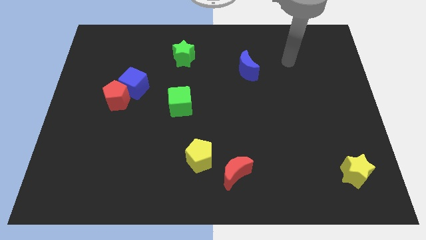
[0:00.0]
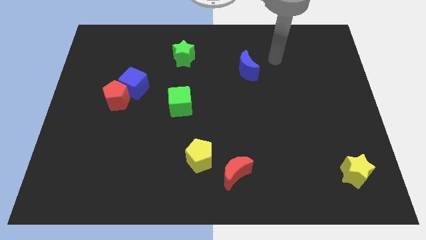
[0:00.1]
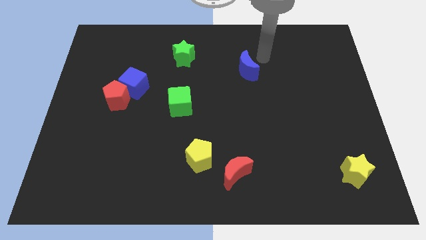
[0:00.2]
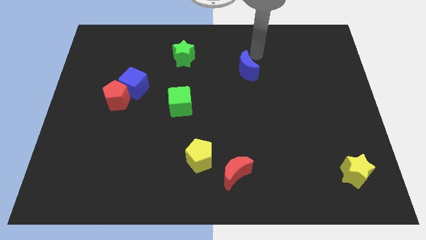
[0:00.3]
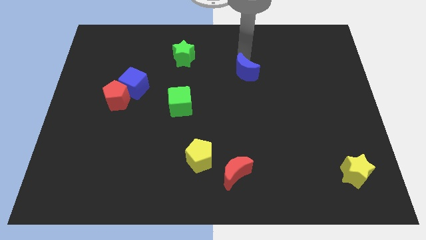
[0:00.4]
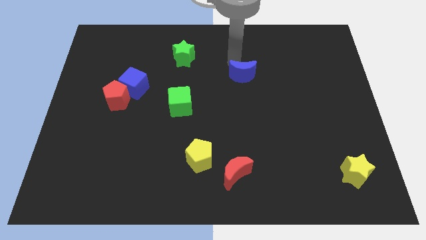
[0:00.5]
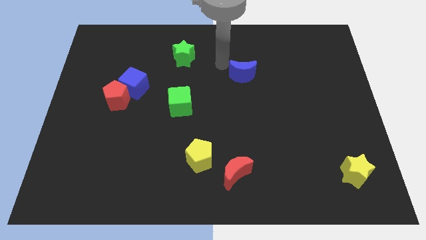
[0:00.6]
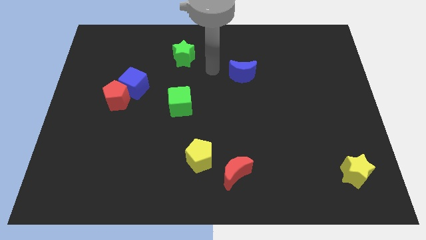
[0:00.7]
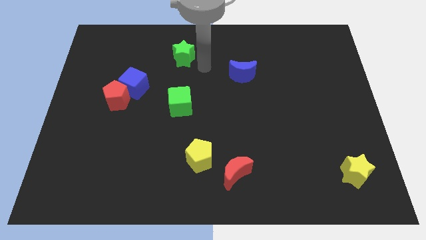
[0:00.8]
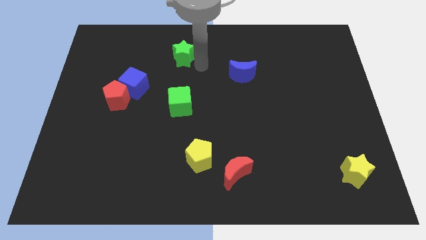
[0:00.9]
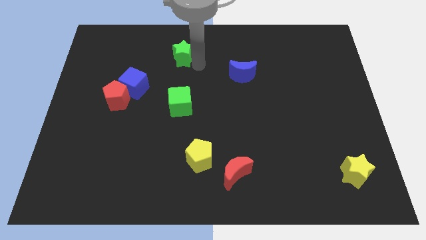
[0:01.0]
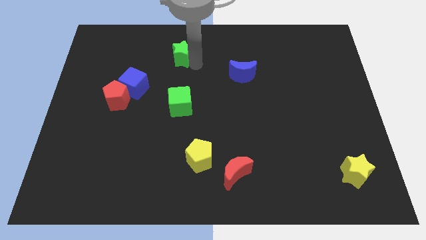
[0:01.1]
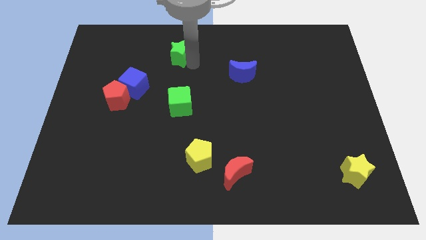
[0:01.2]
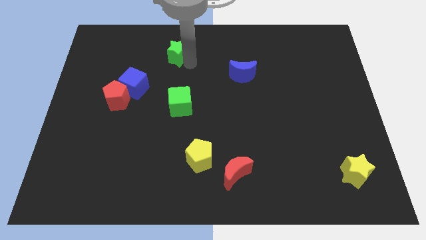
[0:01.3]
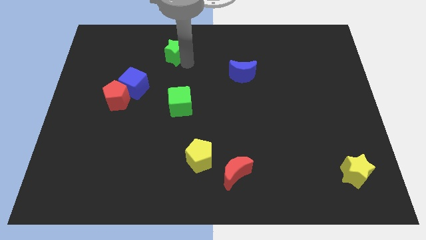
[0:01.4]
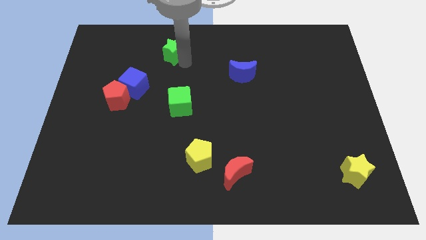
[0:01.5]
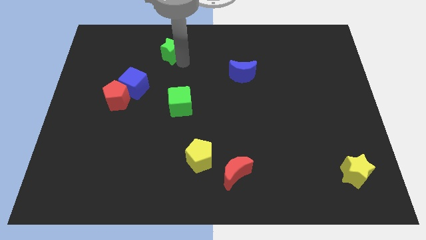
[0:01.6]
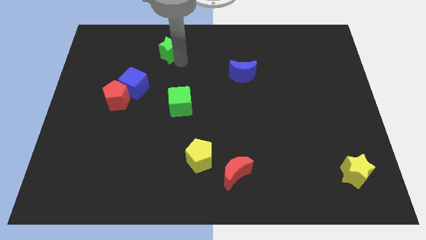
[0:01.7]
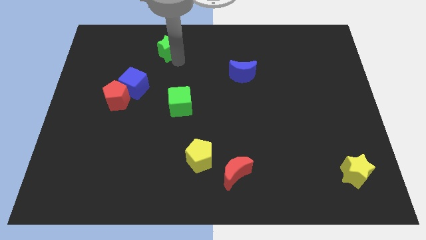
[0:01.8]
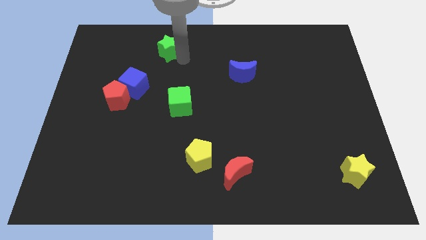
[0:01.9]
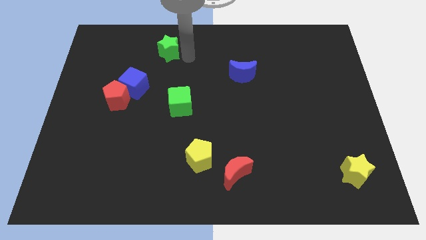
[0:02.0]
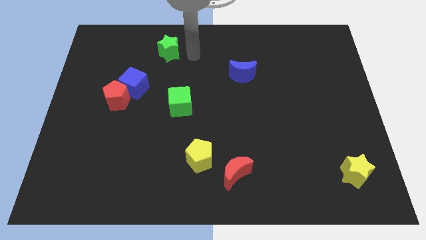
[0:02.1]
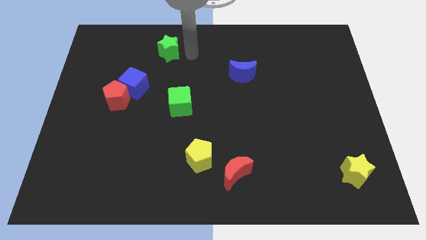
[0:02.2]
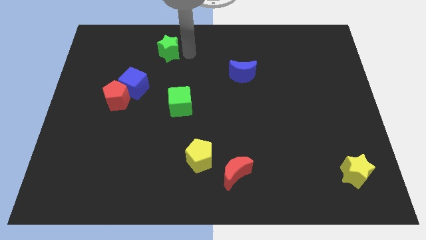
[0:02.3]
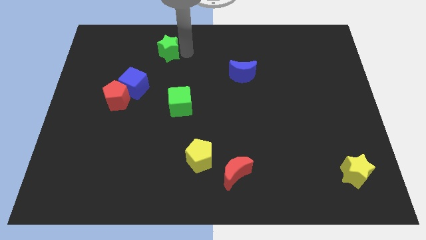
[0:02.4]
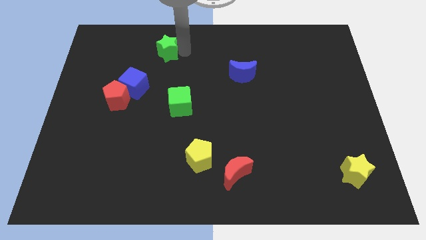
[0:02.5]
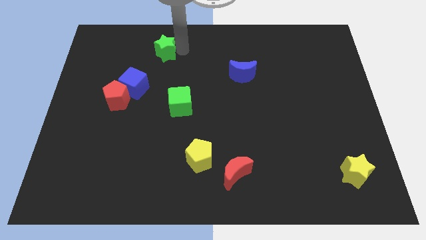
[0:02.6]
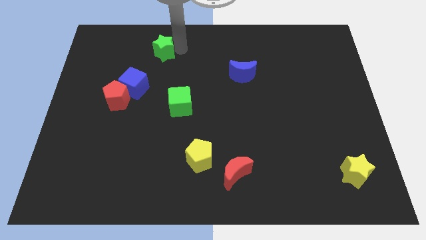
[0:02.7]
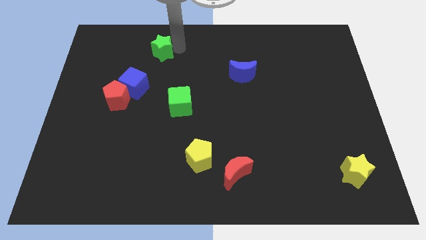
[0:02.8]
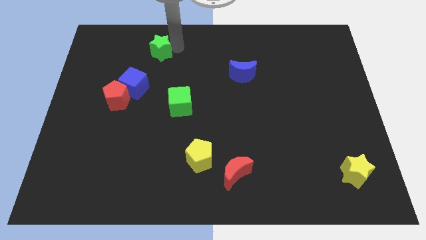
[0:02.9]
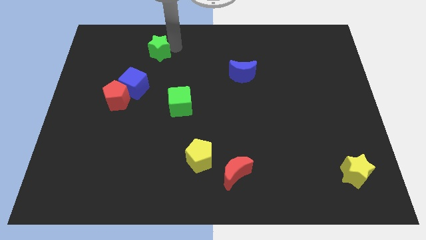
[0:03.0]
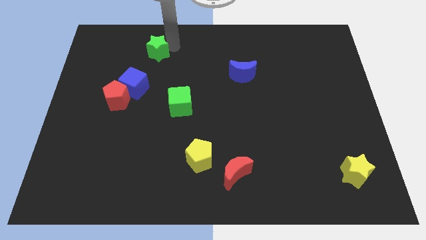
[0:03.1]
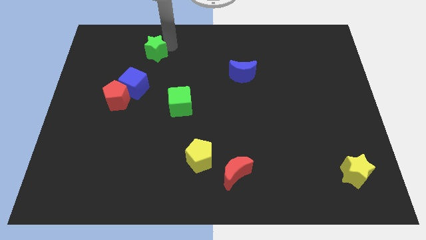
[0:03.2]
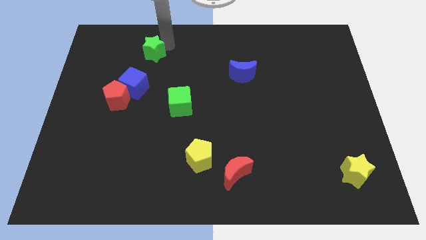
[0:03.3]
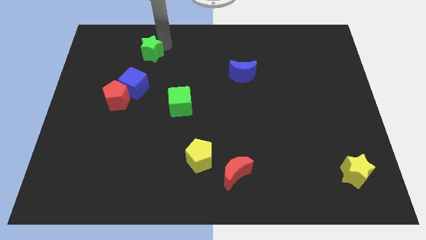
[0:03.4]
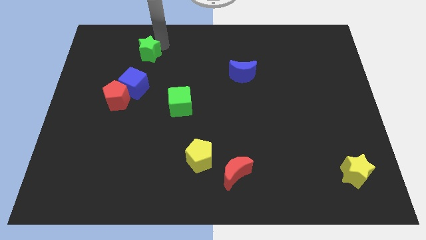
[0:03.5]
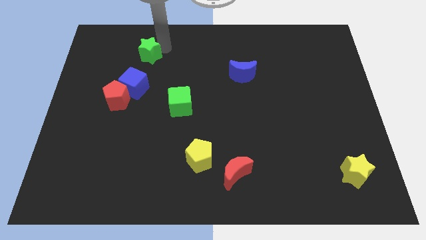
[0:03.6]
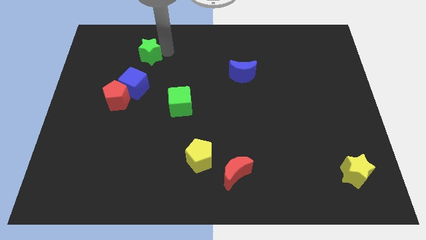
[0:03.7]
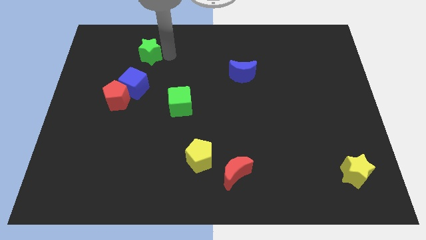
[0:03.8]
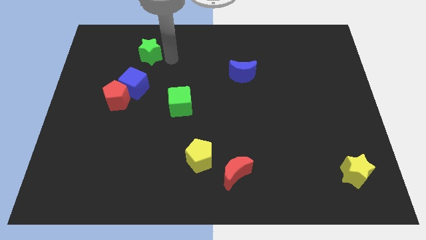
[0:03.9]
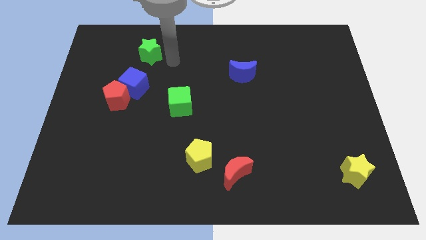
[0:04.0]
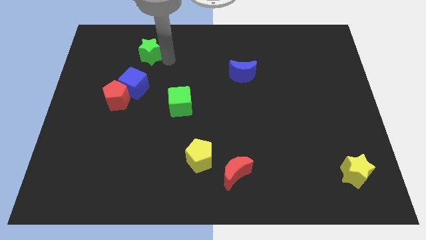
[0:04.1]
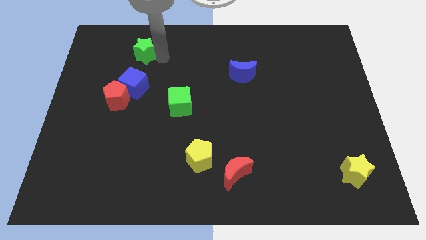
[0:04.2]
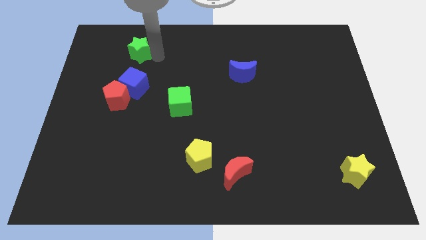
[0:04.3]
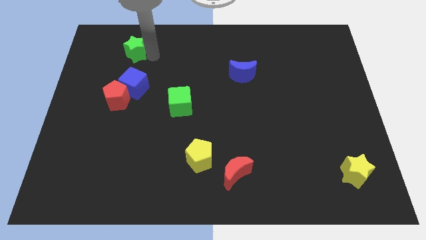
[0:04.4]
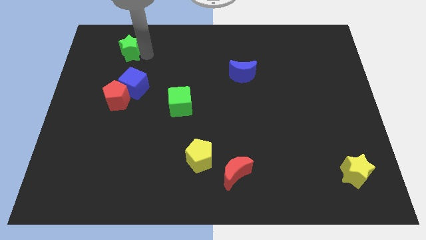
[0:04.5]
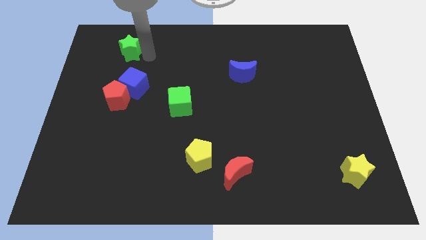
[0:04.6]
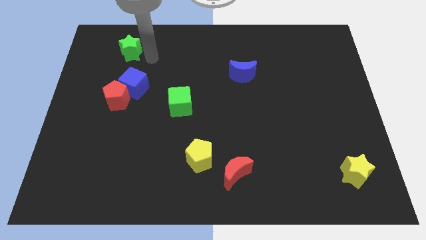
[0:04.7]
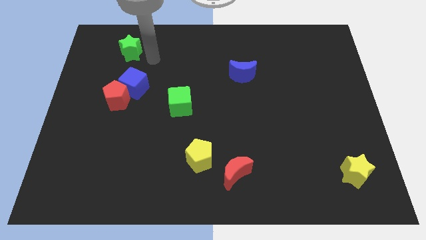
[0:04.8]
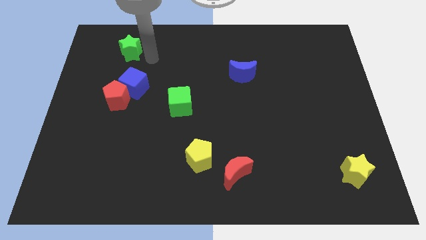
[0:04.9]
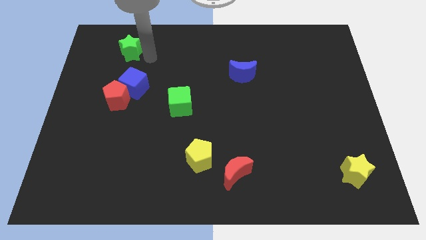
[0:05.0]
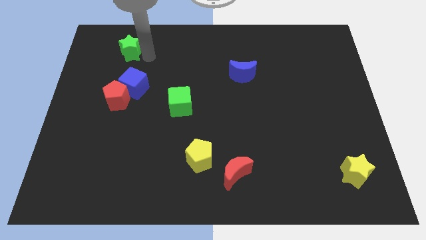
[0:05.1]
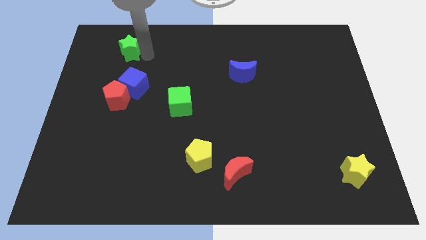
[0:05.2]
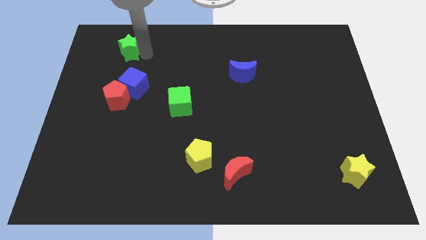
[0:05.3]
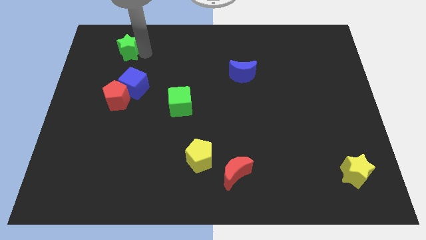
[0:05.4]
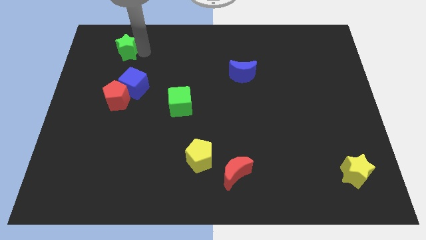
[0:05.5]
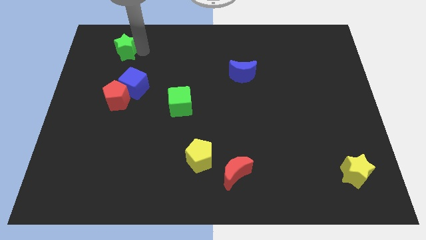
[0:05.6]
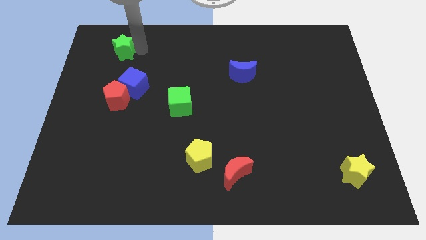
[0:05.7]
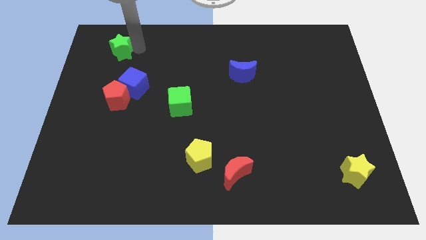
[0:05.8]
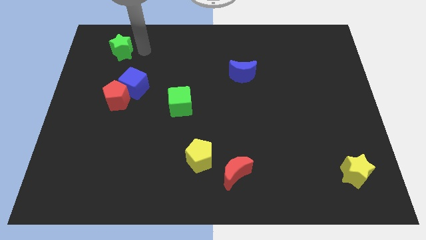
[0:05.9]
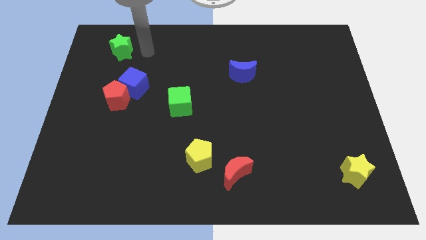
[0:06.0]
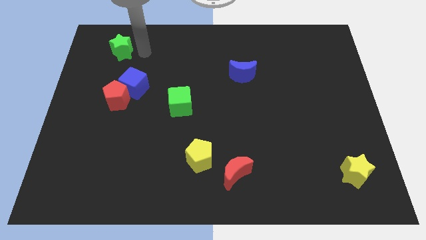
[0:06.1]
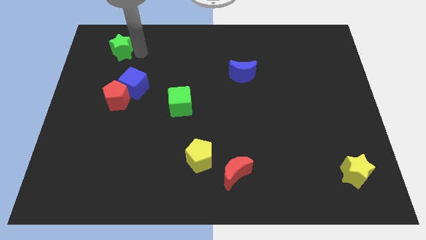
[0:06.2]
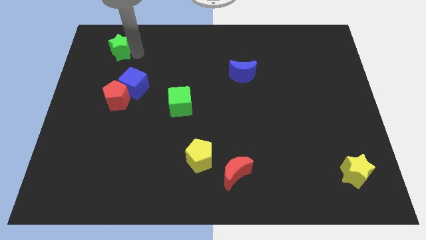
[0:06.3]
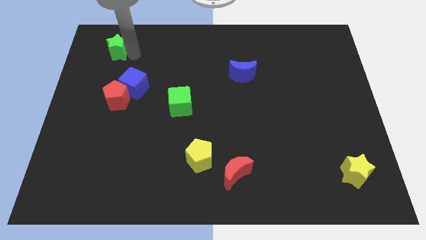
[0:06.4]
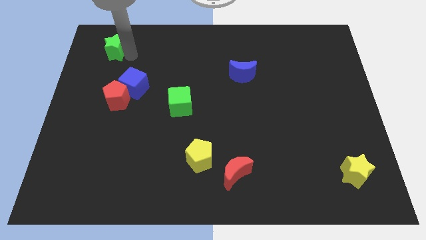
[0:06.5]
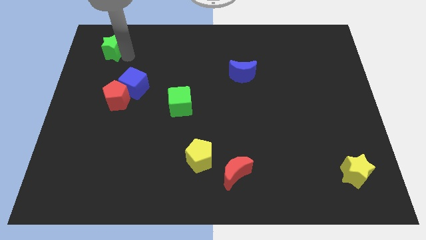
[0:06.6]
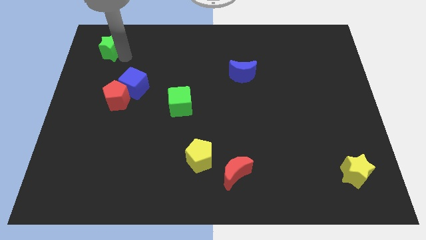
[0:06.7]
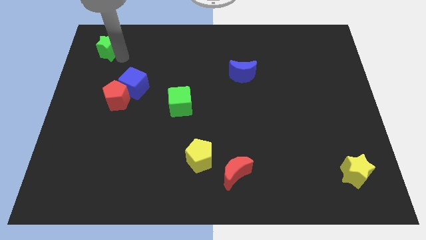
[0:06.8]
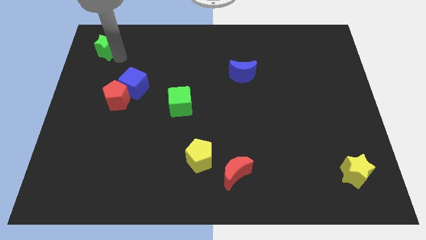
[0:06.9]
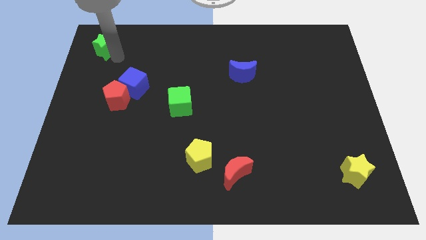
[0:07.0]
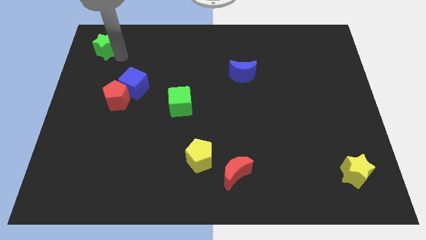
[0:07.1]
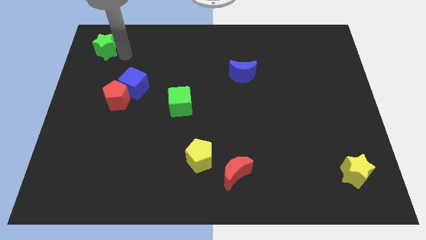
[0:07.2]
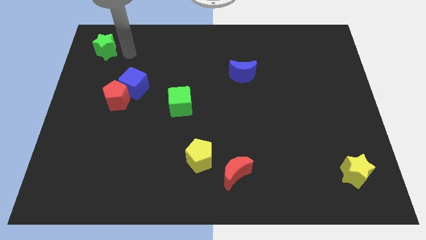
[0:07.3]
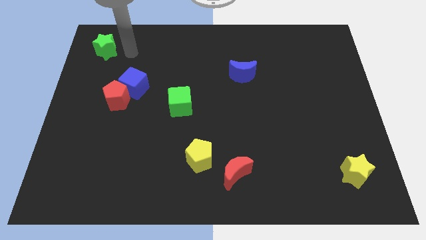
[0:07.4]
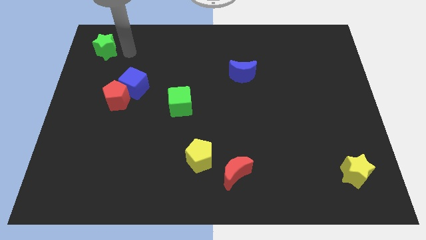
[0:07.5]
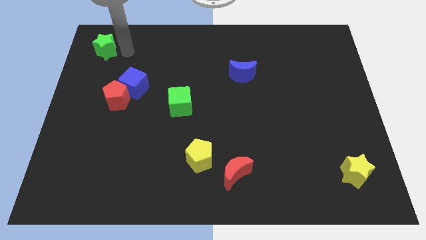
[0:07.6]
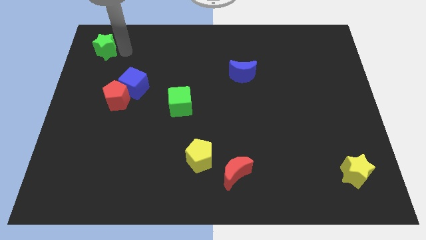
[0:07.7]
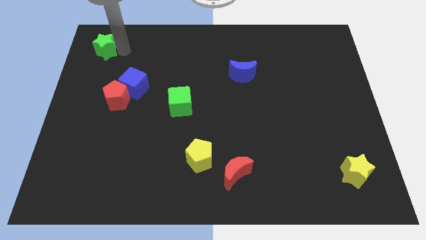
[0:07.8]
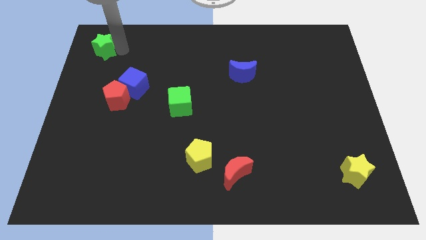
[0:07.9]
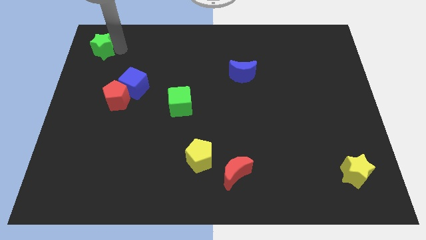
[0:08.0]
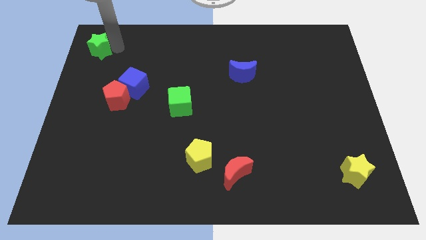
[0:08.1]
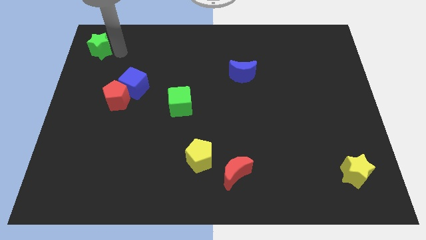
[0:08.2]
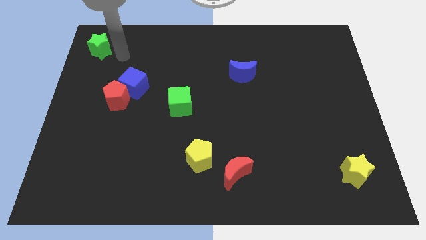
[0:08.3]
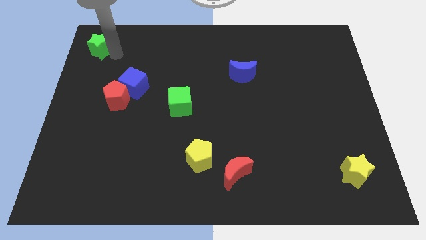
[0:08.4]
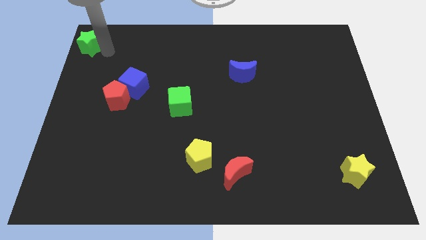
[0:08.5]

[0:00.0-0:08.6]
move the green star to the upper left corner
